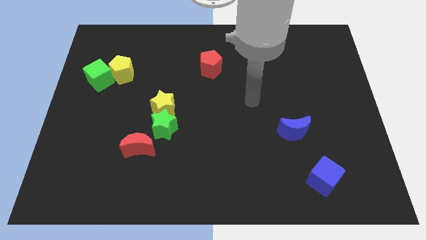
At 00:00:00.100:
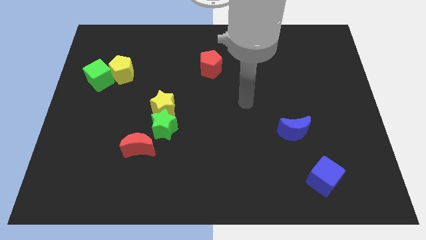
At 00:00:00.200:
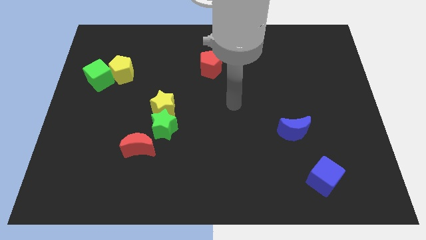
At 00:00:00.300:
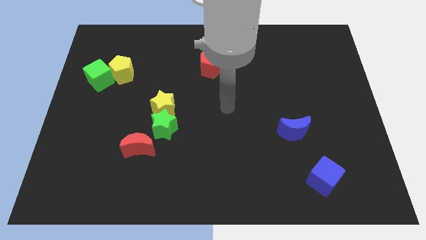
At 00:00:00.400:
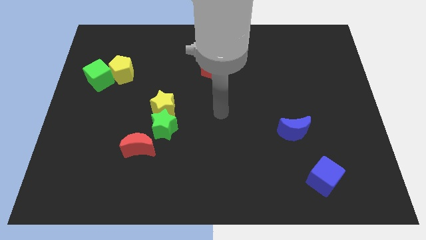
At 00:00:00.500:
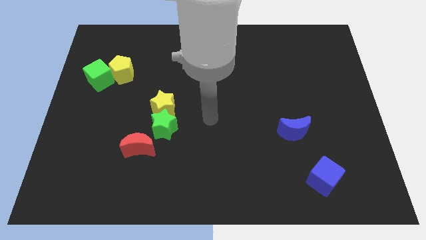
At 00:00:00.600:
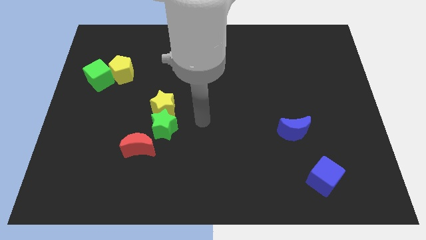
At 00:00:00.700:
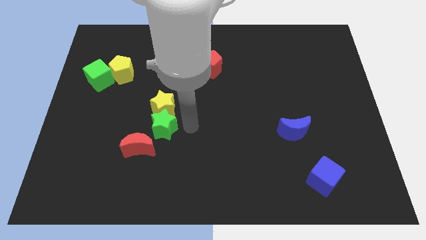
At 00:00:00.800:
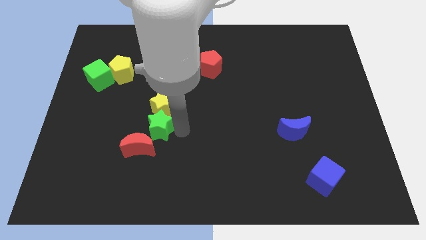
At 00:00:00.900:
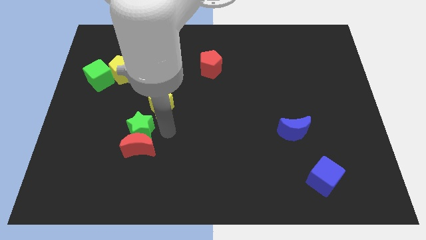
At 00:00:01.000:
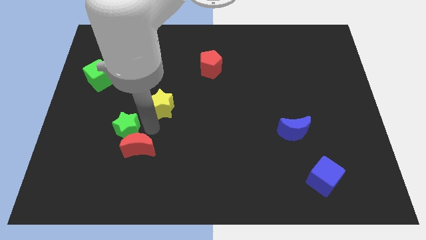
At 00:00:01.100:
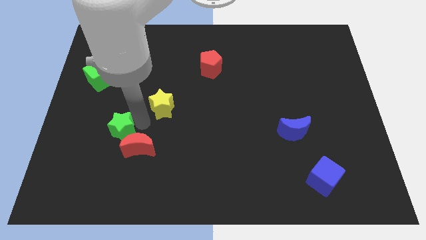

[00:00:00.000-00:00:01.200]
pull the yellow star apart from the green star

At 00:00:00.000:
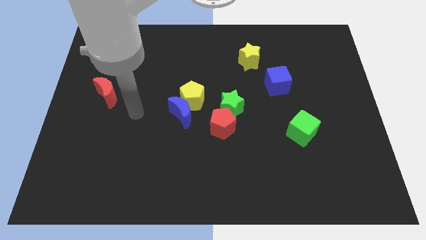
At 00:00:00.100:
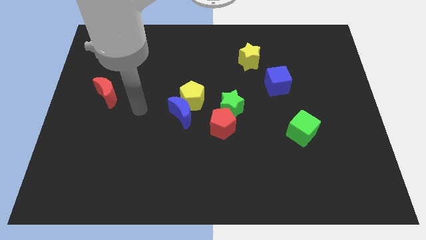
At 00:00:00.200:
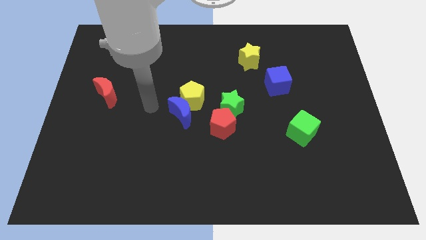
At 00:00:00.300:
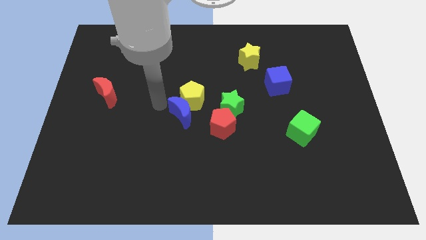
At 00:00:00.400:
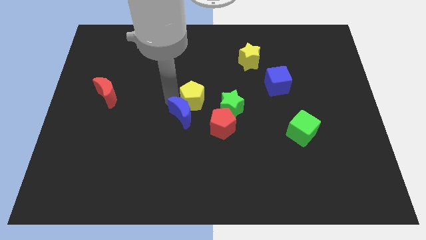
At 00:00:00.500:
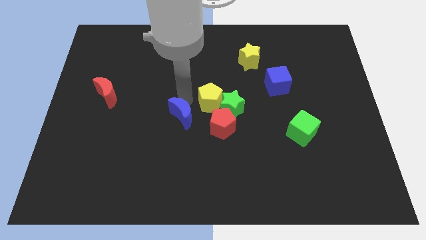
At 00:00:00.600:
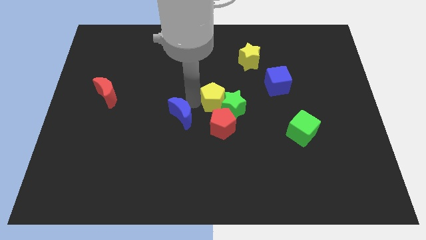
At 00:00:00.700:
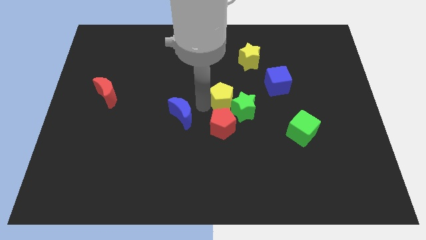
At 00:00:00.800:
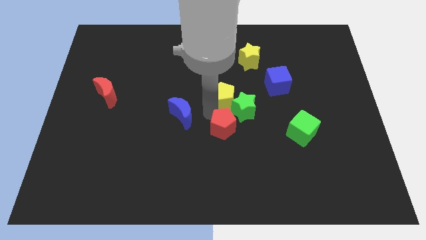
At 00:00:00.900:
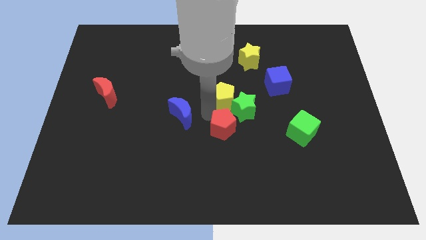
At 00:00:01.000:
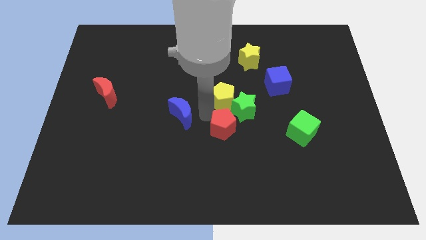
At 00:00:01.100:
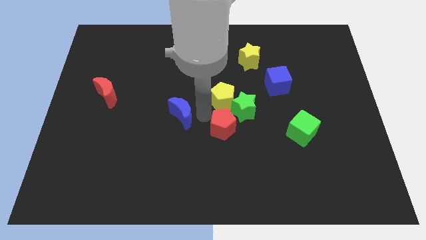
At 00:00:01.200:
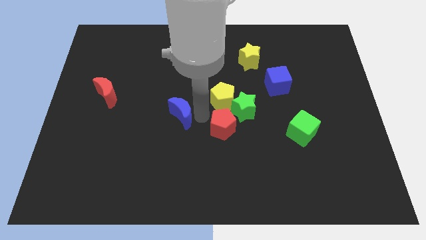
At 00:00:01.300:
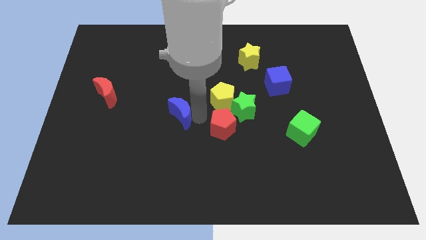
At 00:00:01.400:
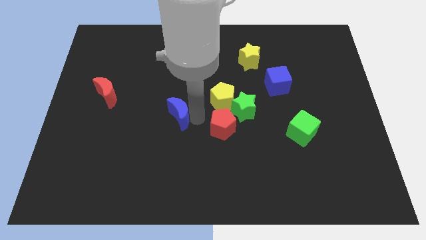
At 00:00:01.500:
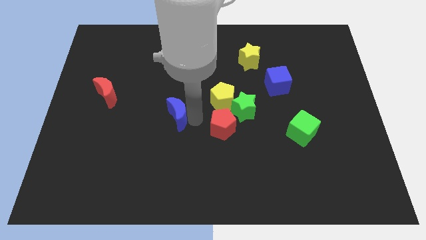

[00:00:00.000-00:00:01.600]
separate the blue moon from the yellow pentagon and red pentagon

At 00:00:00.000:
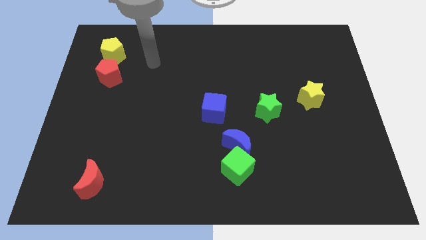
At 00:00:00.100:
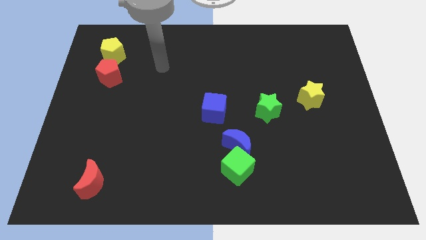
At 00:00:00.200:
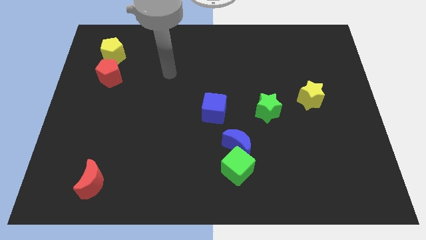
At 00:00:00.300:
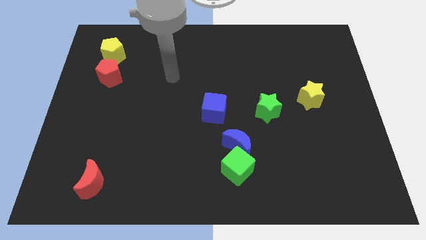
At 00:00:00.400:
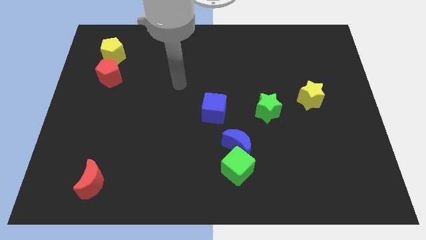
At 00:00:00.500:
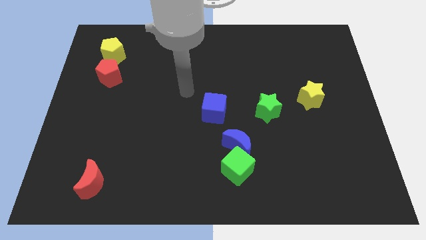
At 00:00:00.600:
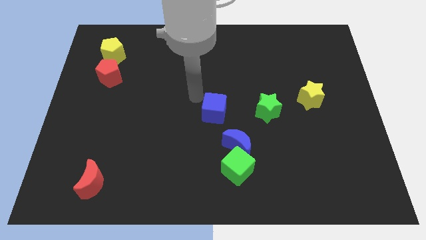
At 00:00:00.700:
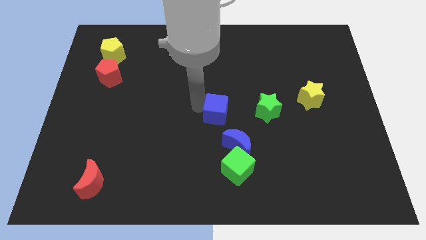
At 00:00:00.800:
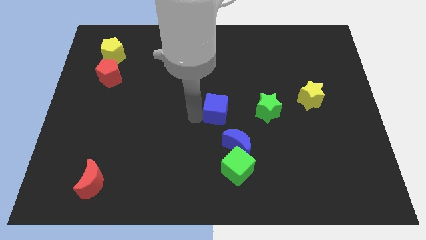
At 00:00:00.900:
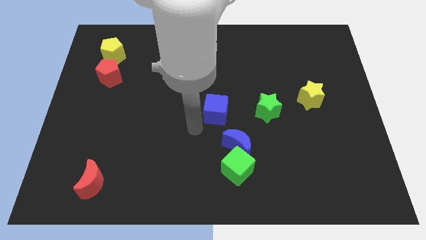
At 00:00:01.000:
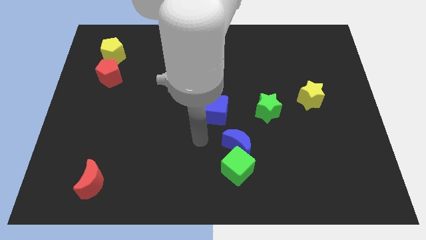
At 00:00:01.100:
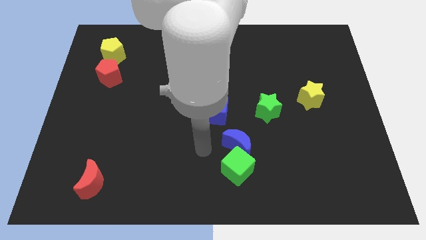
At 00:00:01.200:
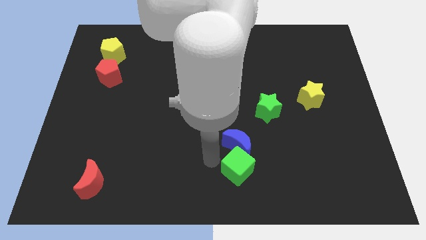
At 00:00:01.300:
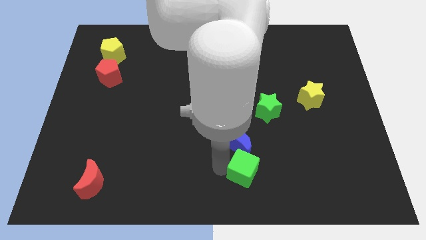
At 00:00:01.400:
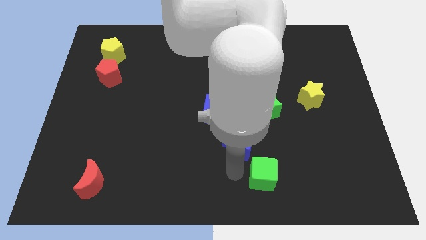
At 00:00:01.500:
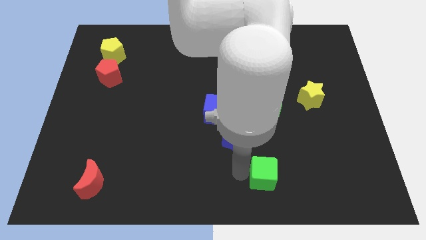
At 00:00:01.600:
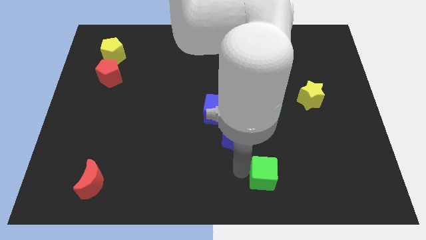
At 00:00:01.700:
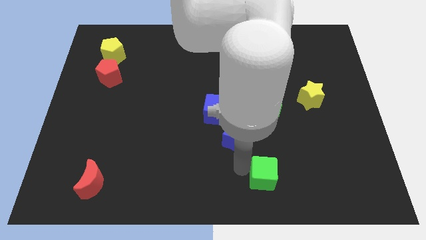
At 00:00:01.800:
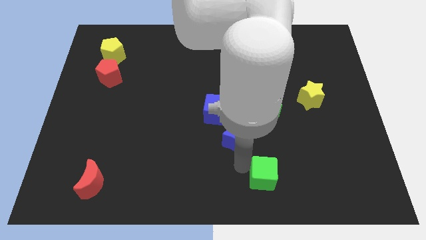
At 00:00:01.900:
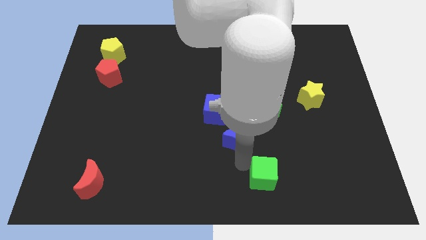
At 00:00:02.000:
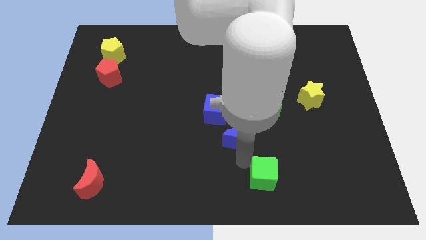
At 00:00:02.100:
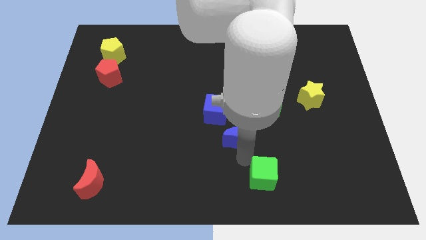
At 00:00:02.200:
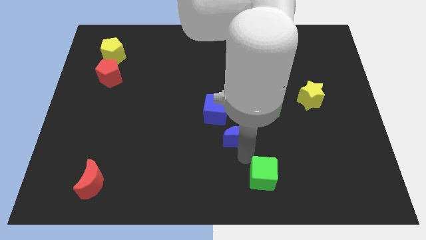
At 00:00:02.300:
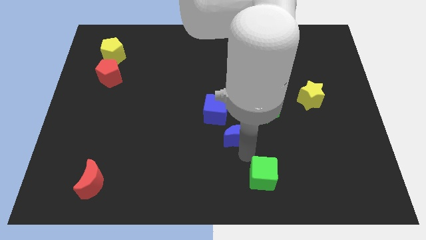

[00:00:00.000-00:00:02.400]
separate the blue moon from the green cube

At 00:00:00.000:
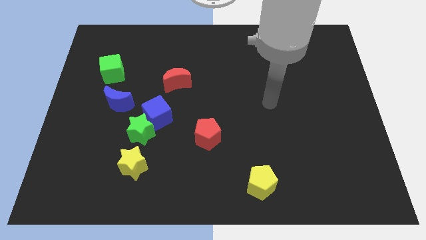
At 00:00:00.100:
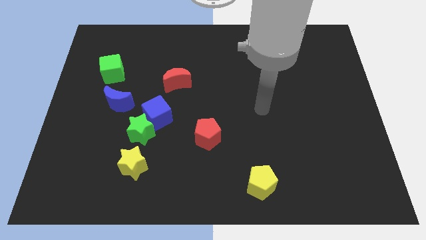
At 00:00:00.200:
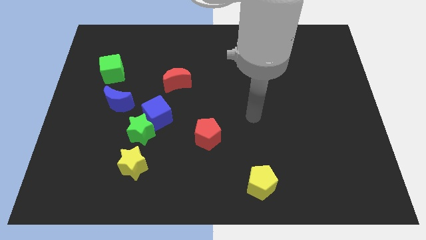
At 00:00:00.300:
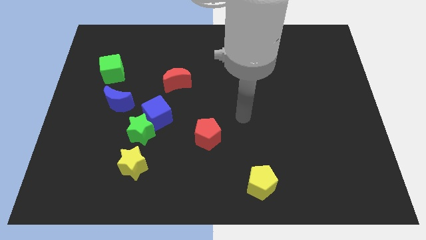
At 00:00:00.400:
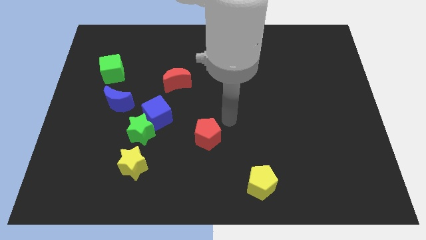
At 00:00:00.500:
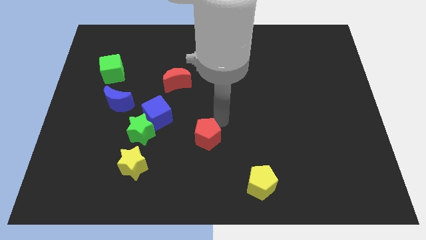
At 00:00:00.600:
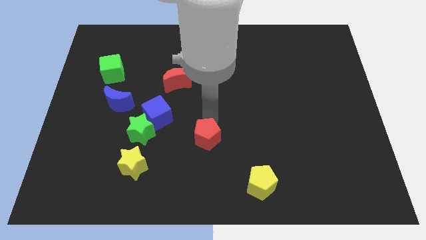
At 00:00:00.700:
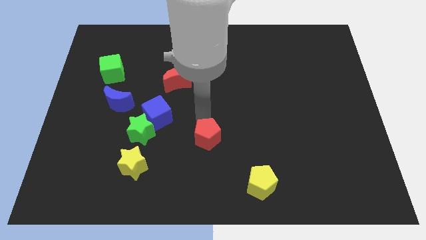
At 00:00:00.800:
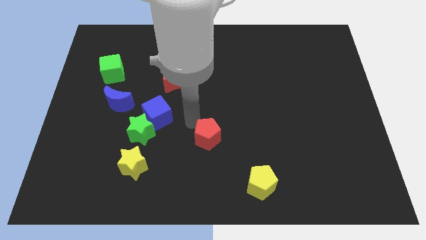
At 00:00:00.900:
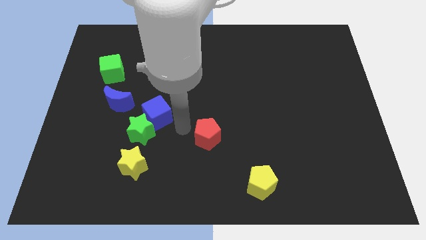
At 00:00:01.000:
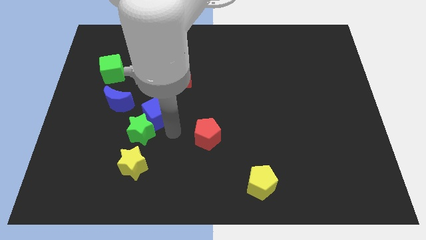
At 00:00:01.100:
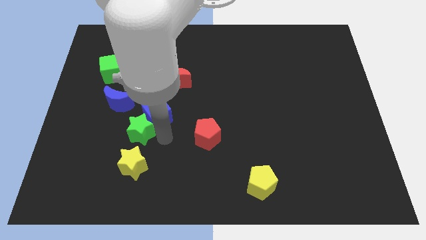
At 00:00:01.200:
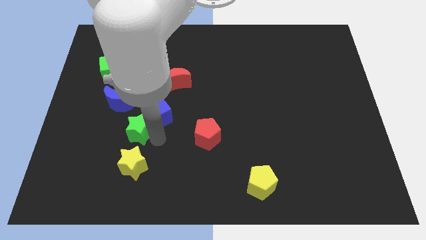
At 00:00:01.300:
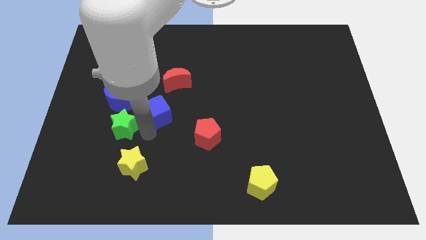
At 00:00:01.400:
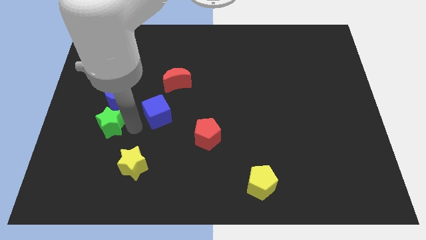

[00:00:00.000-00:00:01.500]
separate the blue cube from the green star

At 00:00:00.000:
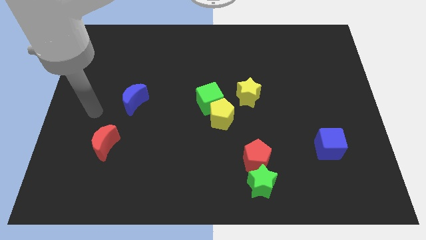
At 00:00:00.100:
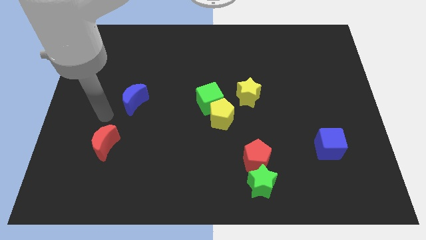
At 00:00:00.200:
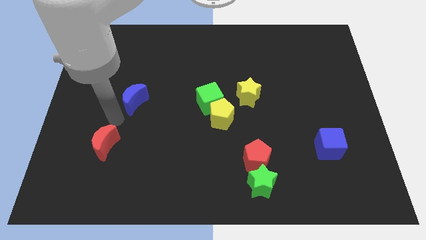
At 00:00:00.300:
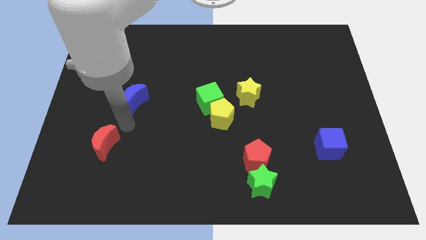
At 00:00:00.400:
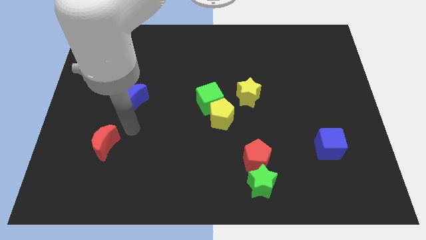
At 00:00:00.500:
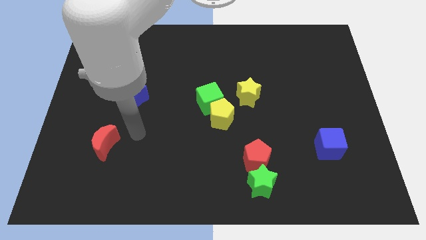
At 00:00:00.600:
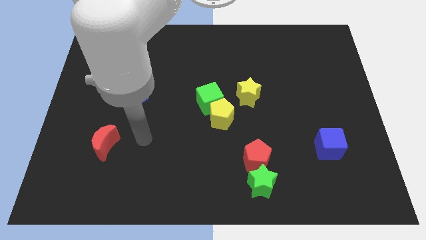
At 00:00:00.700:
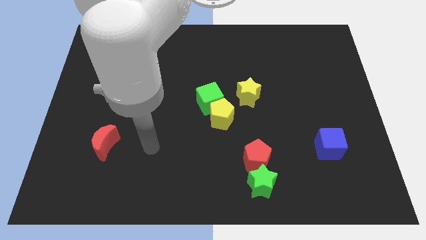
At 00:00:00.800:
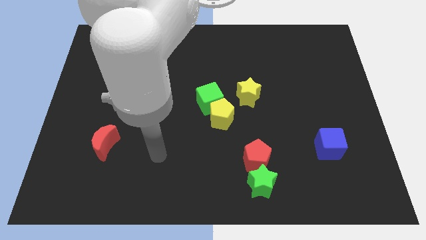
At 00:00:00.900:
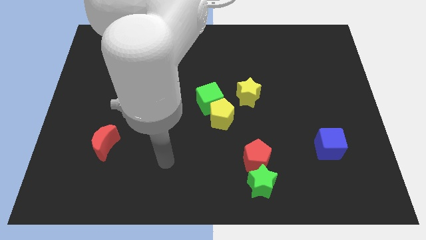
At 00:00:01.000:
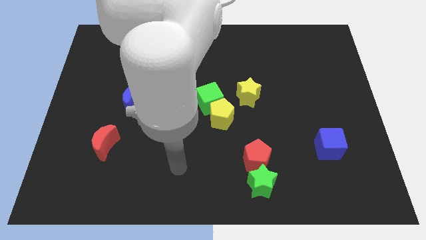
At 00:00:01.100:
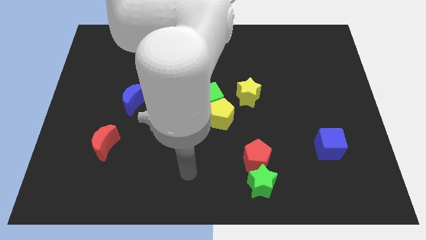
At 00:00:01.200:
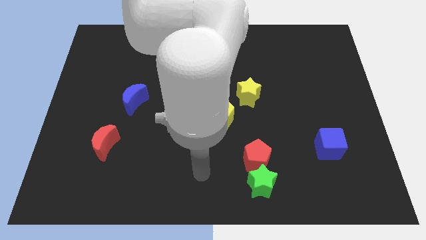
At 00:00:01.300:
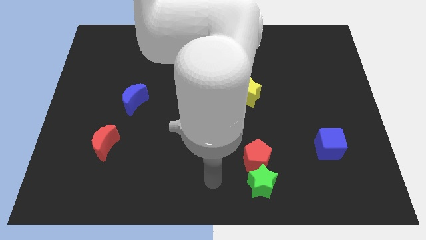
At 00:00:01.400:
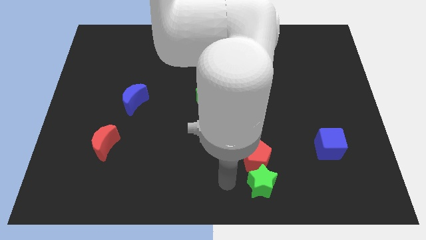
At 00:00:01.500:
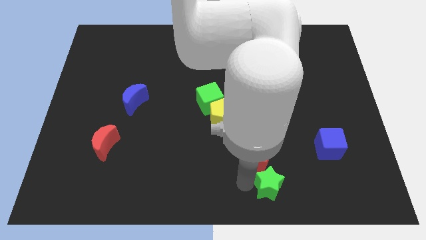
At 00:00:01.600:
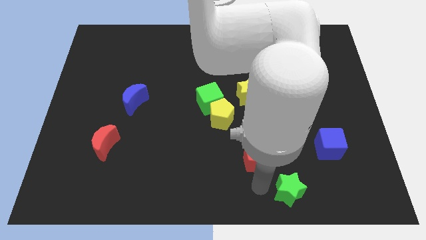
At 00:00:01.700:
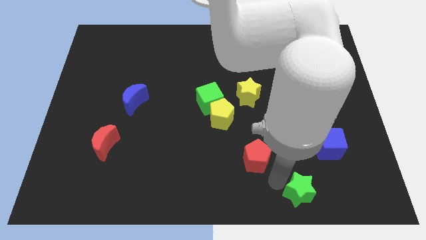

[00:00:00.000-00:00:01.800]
move the red pentagon away from the green star

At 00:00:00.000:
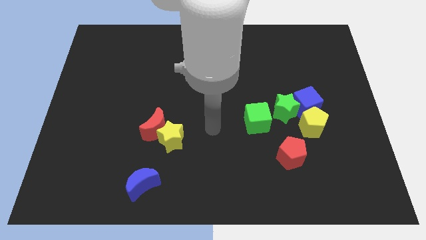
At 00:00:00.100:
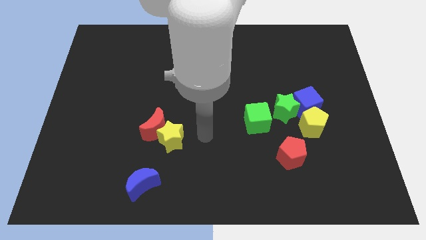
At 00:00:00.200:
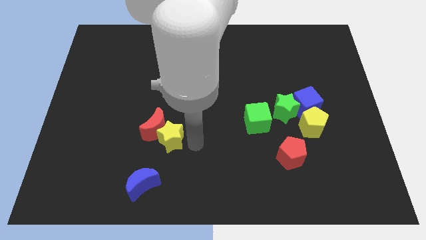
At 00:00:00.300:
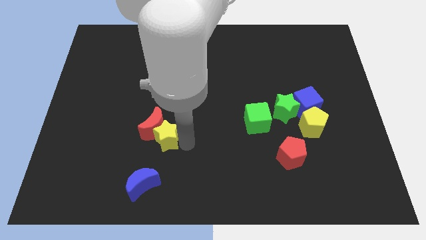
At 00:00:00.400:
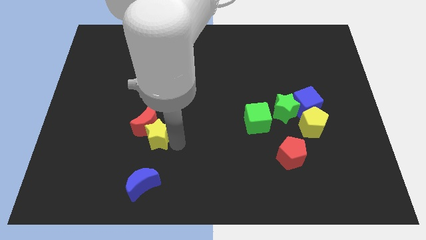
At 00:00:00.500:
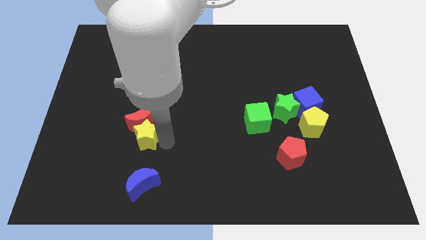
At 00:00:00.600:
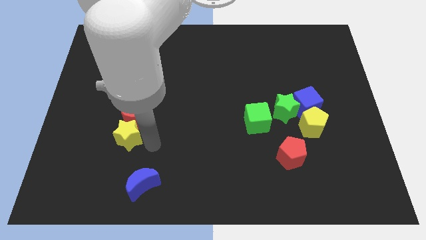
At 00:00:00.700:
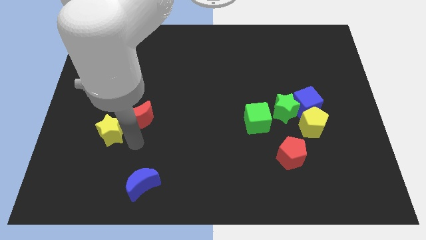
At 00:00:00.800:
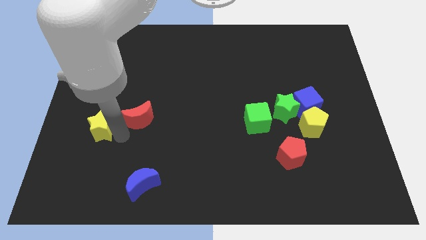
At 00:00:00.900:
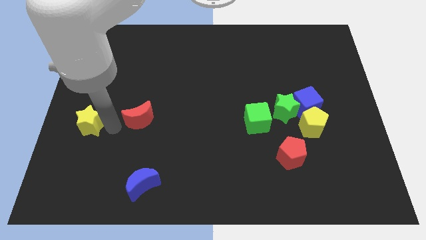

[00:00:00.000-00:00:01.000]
pull the red moon apart from the yellow star
